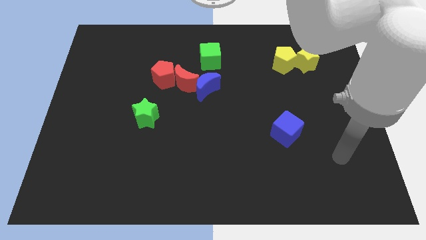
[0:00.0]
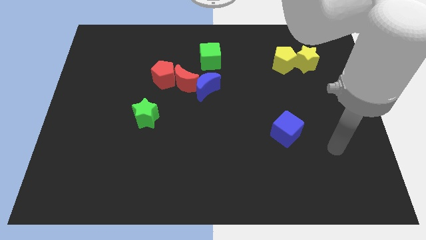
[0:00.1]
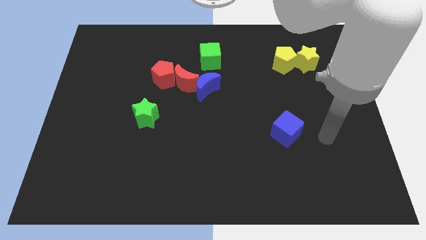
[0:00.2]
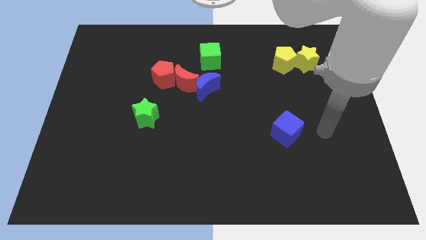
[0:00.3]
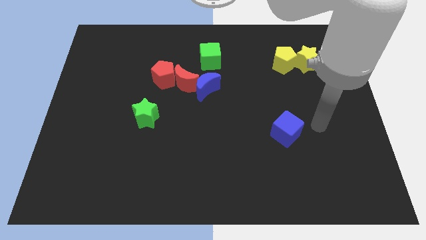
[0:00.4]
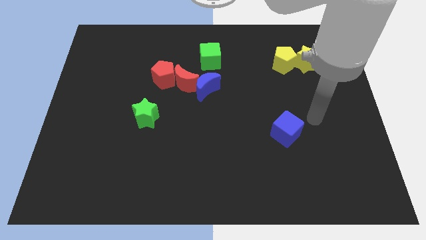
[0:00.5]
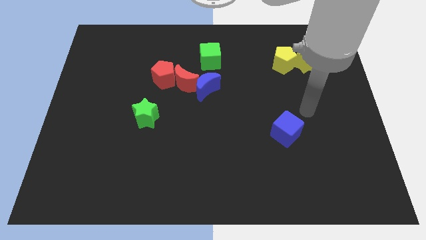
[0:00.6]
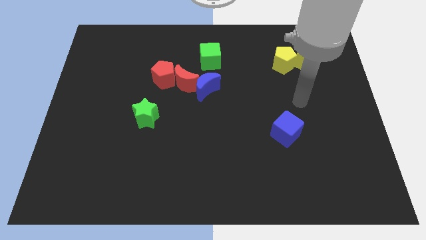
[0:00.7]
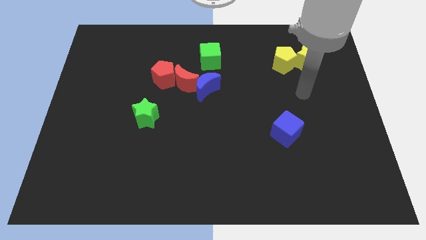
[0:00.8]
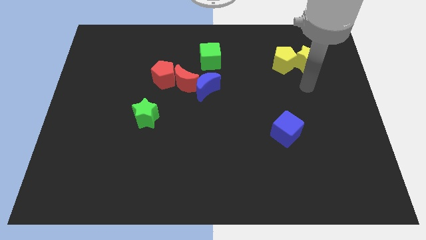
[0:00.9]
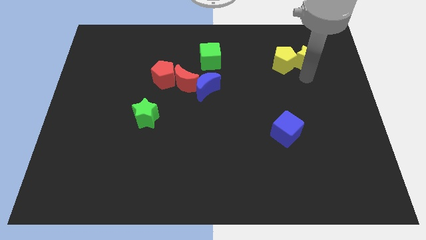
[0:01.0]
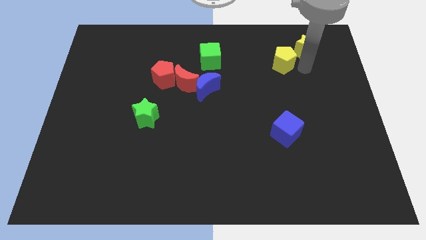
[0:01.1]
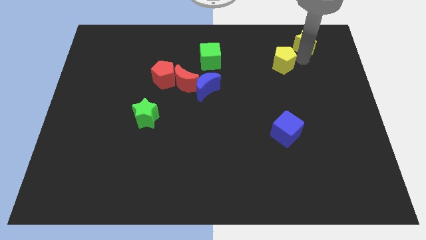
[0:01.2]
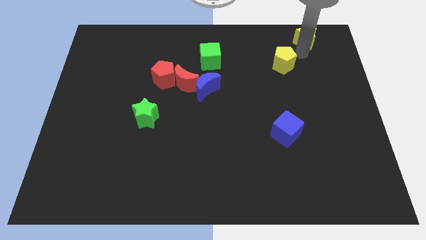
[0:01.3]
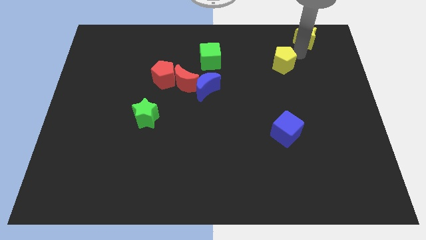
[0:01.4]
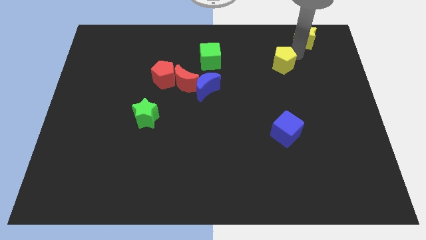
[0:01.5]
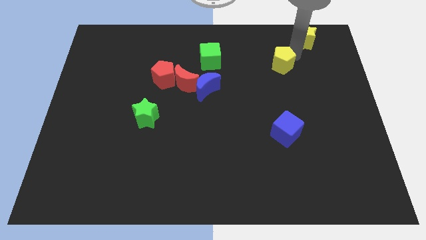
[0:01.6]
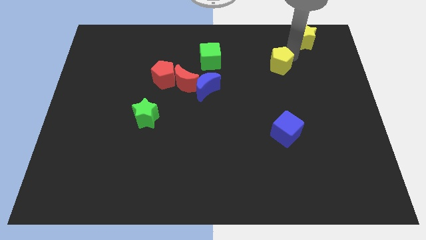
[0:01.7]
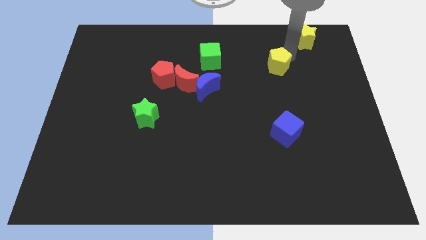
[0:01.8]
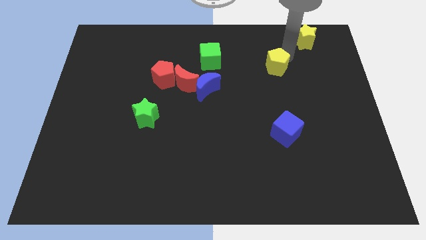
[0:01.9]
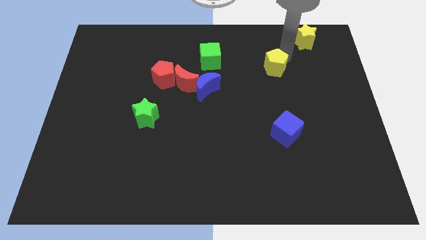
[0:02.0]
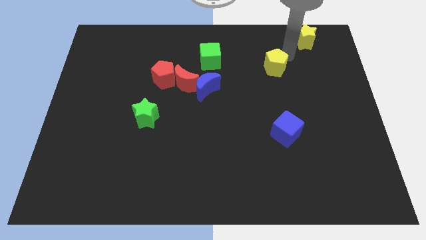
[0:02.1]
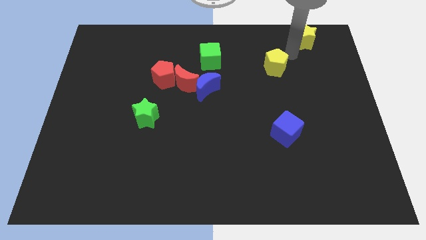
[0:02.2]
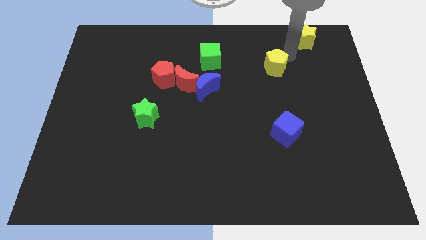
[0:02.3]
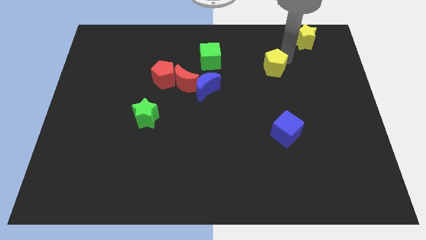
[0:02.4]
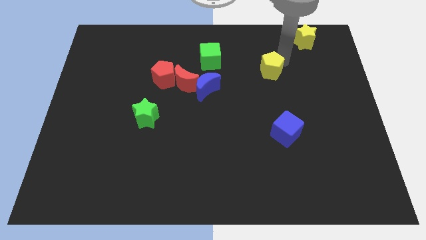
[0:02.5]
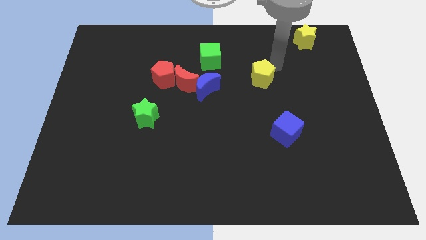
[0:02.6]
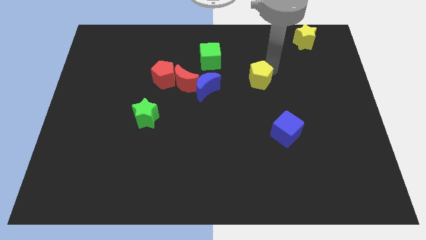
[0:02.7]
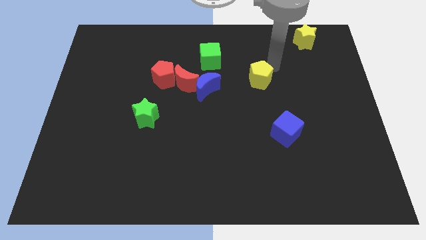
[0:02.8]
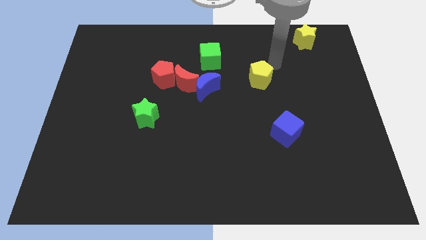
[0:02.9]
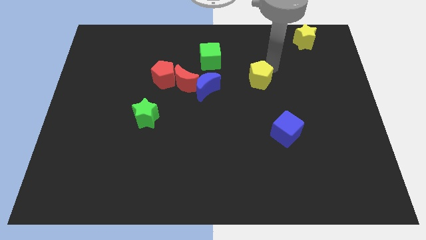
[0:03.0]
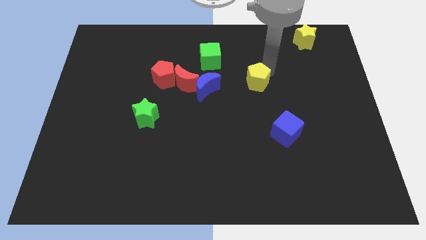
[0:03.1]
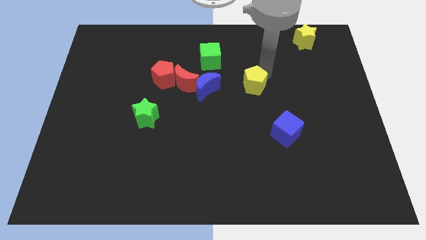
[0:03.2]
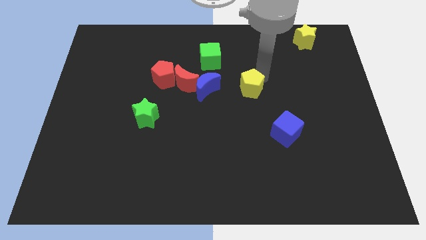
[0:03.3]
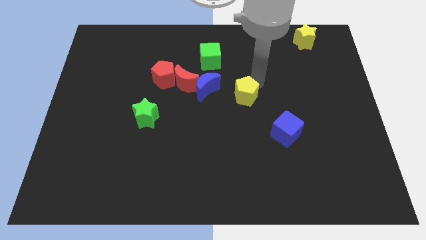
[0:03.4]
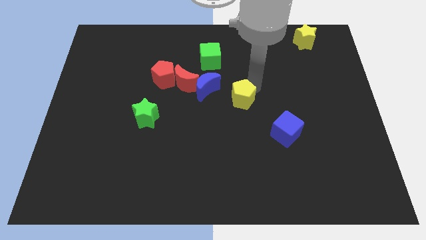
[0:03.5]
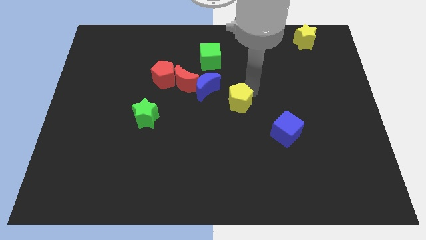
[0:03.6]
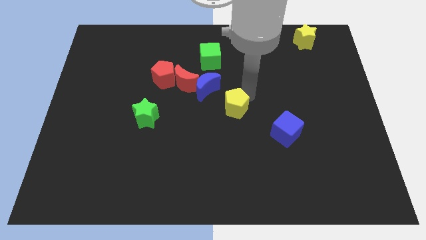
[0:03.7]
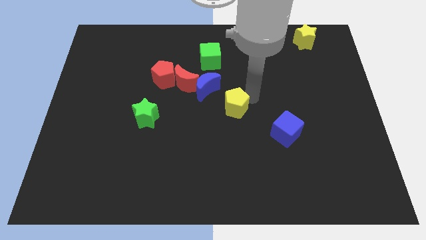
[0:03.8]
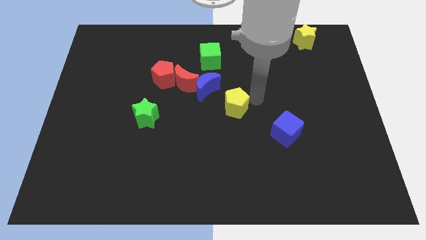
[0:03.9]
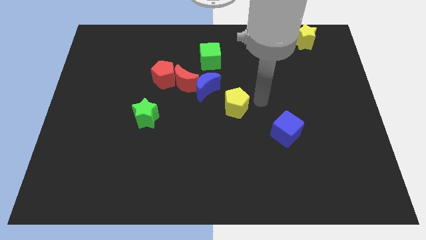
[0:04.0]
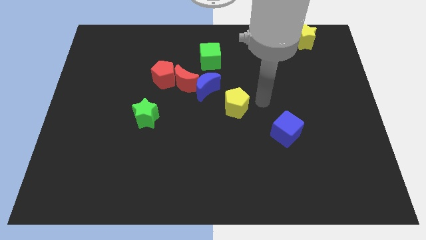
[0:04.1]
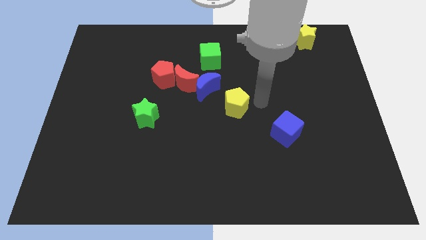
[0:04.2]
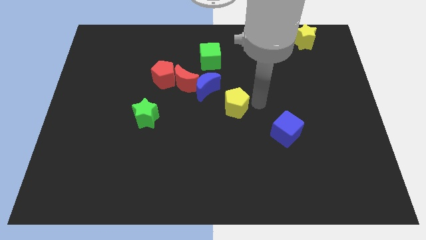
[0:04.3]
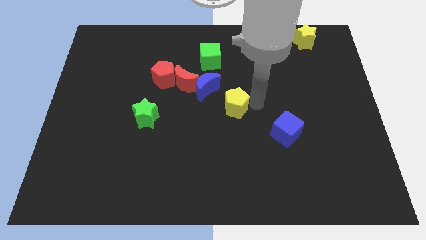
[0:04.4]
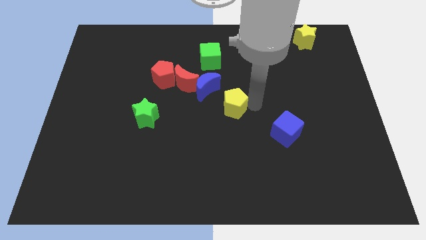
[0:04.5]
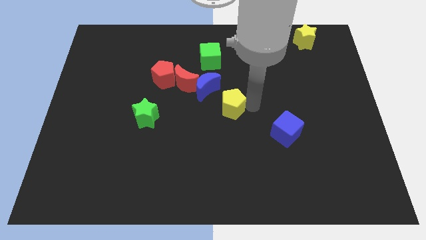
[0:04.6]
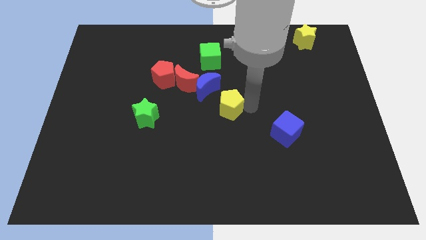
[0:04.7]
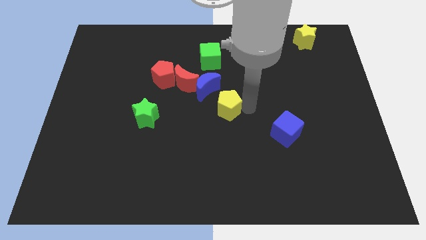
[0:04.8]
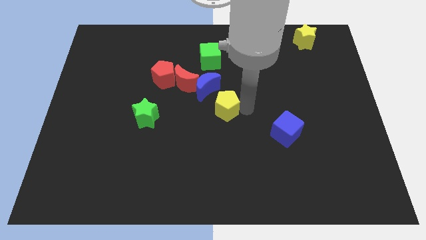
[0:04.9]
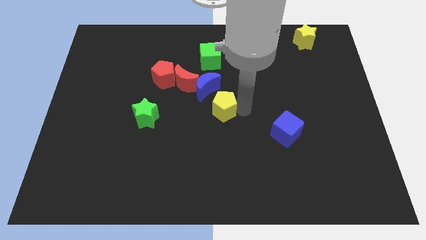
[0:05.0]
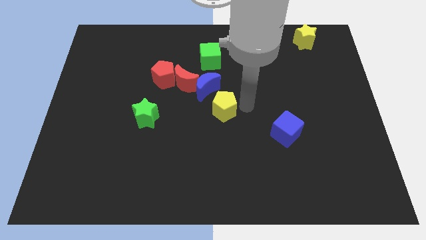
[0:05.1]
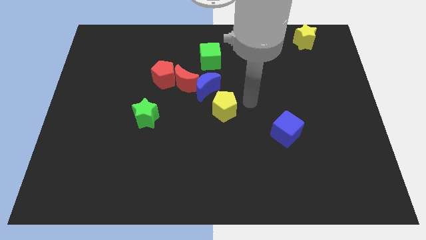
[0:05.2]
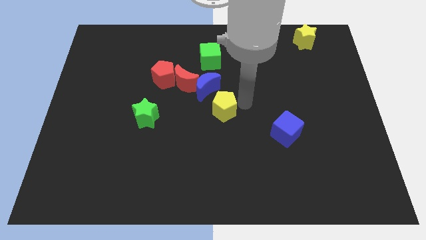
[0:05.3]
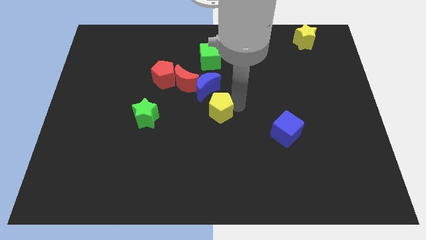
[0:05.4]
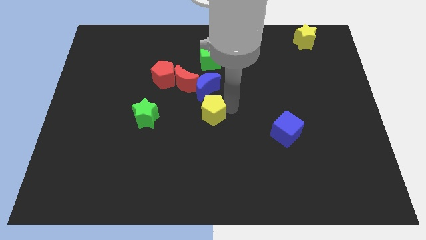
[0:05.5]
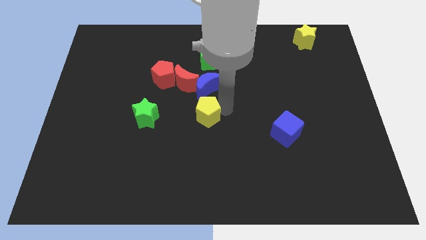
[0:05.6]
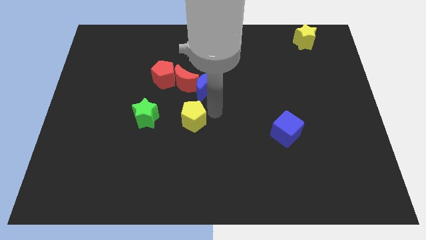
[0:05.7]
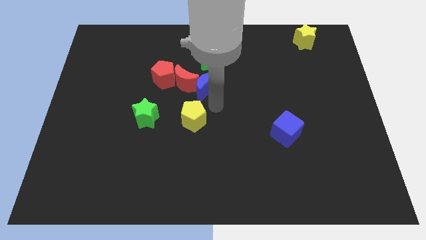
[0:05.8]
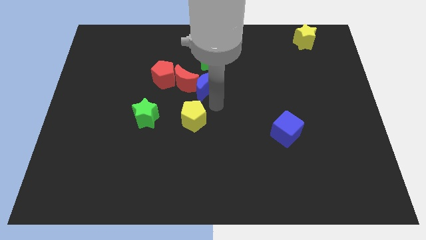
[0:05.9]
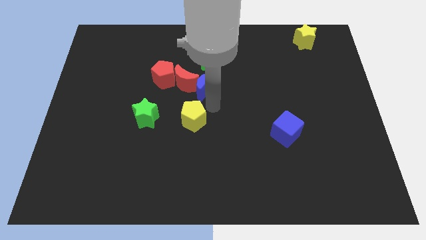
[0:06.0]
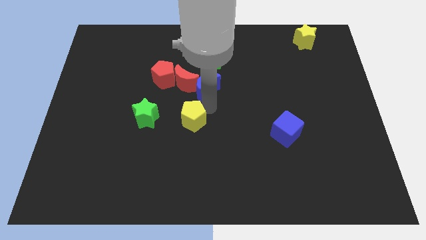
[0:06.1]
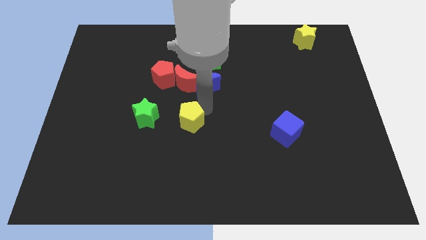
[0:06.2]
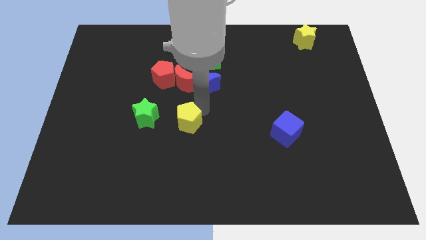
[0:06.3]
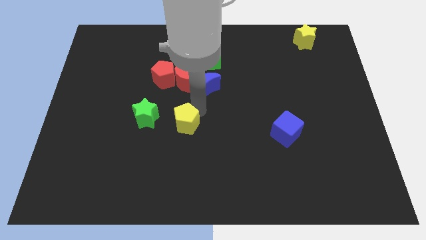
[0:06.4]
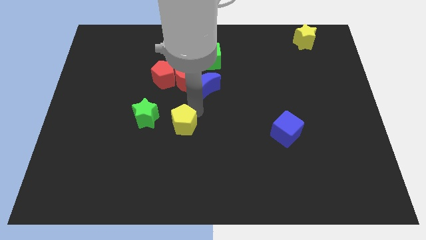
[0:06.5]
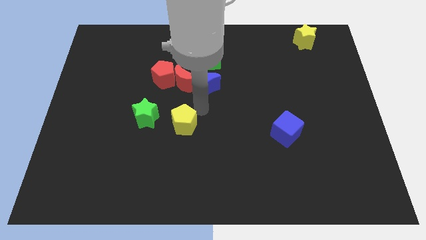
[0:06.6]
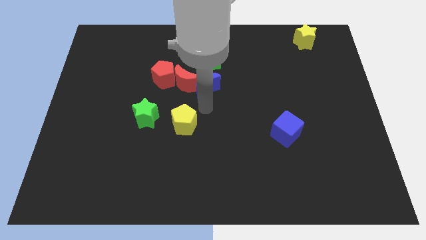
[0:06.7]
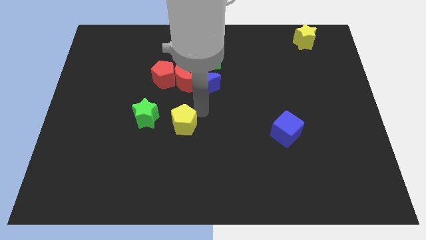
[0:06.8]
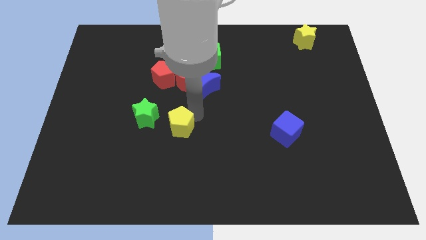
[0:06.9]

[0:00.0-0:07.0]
slide the yellow pentagon to the bottom right side of the green star

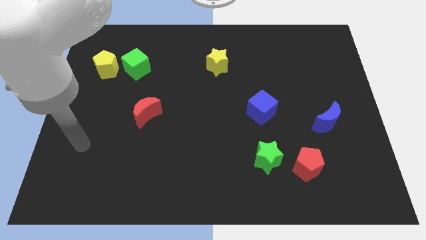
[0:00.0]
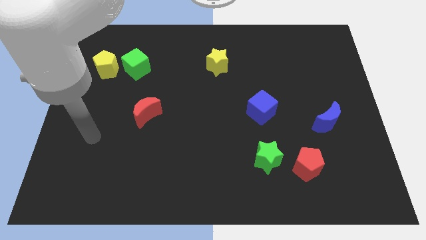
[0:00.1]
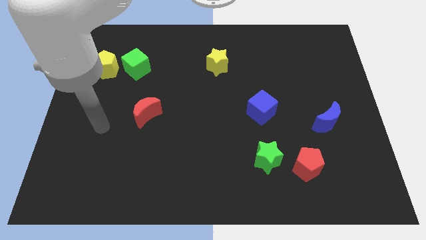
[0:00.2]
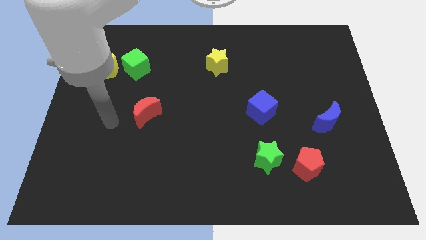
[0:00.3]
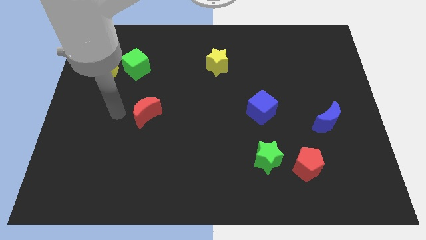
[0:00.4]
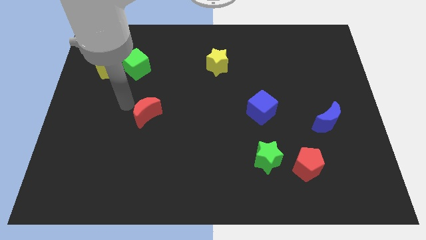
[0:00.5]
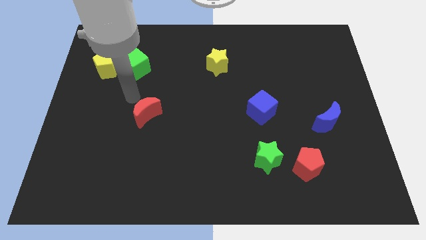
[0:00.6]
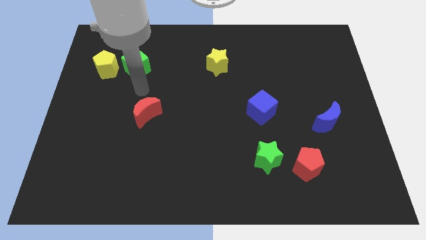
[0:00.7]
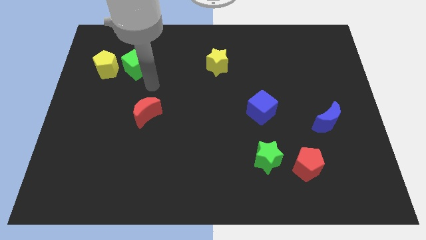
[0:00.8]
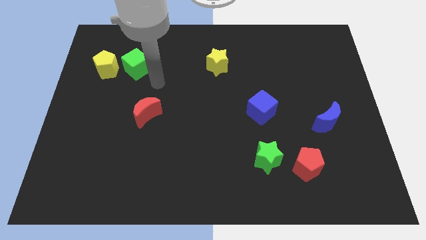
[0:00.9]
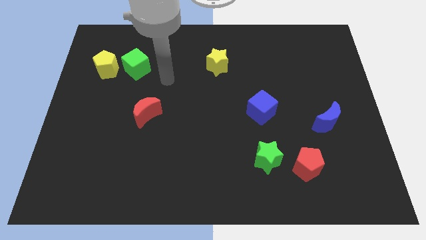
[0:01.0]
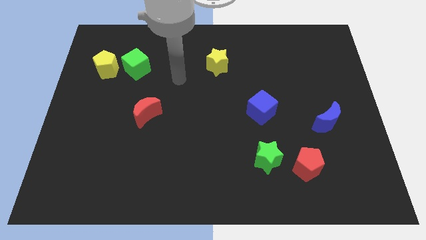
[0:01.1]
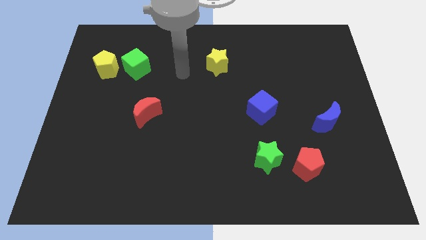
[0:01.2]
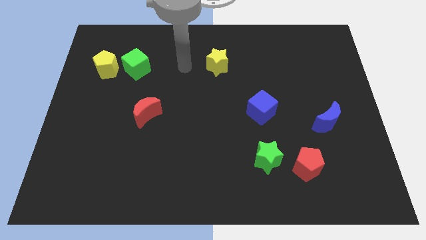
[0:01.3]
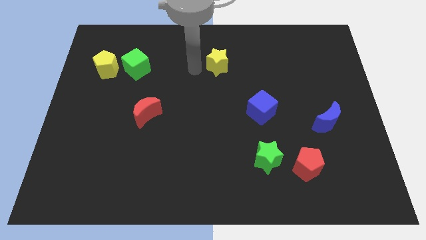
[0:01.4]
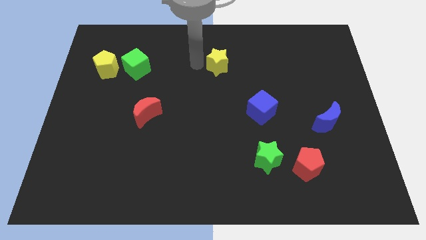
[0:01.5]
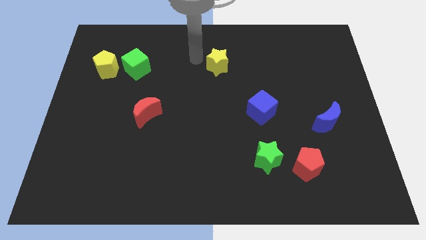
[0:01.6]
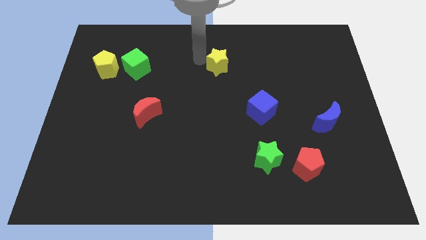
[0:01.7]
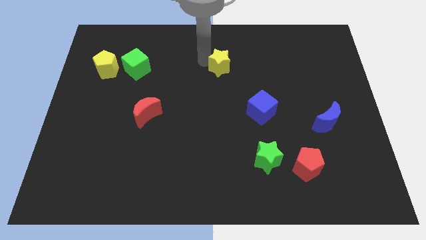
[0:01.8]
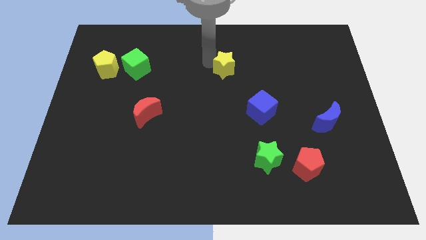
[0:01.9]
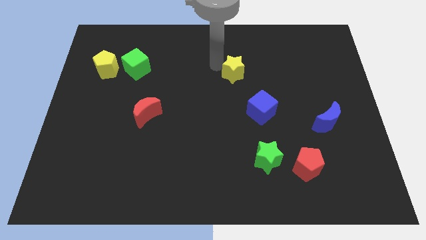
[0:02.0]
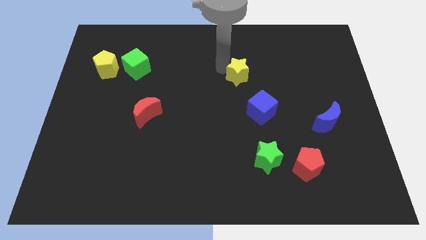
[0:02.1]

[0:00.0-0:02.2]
move the yellow star to the top of the blue cube
